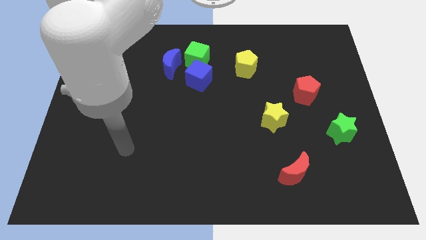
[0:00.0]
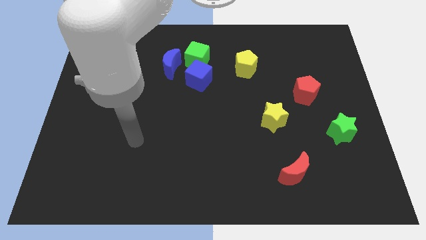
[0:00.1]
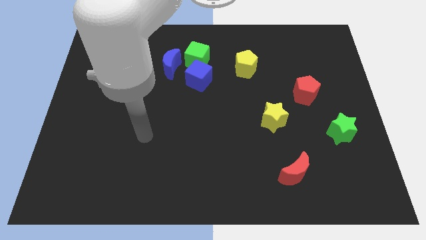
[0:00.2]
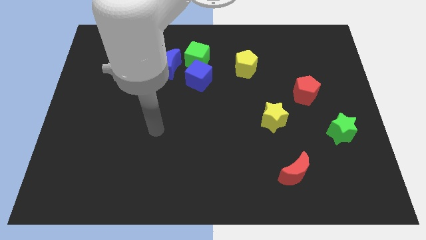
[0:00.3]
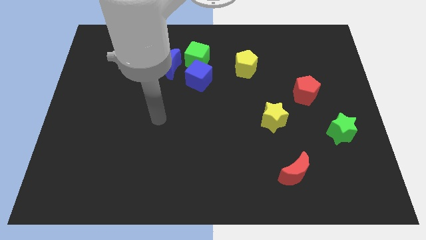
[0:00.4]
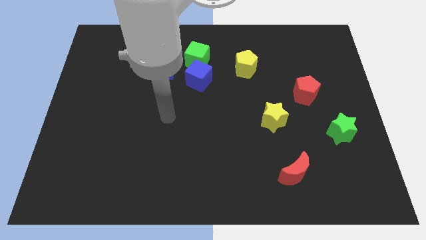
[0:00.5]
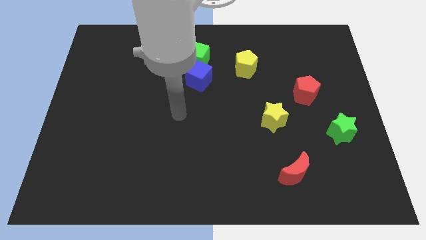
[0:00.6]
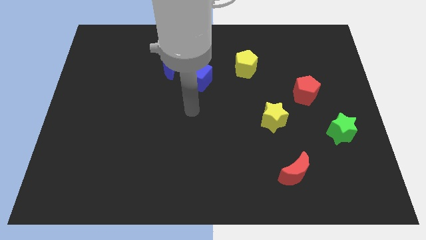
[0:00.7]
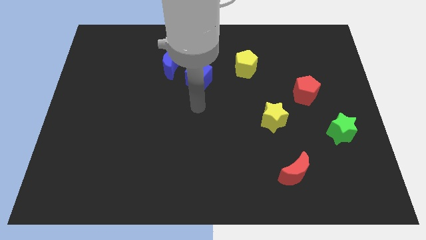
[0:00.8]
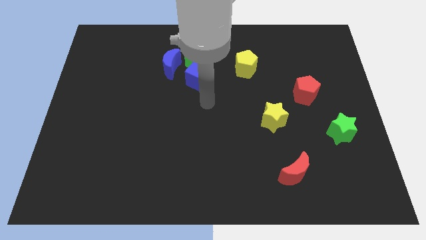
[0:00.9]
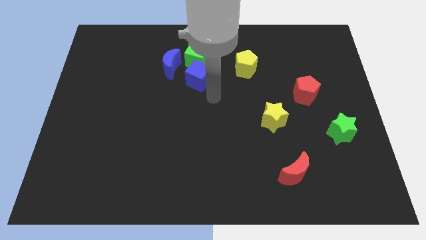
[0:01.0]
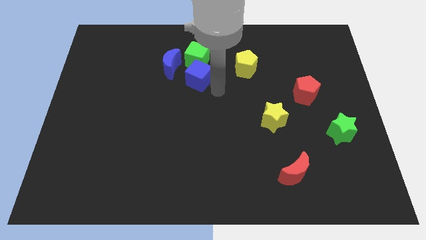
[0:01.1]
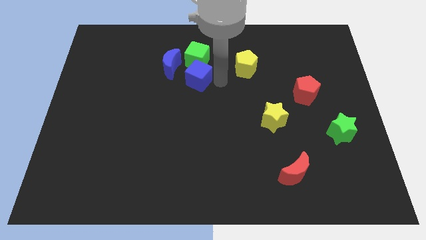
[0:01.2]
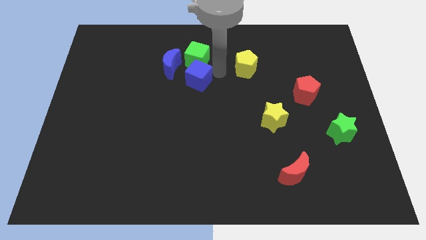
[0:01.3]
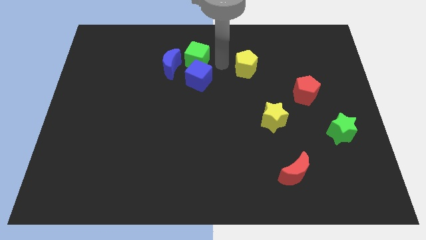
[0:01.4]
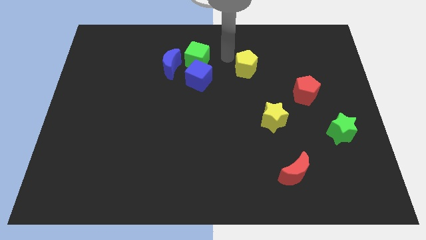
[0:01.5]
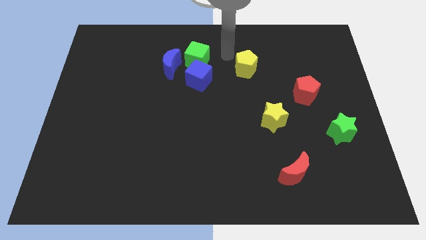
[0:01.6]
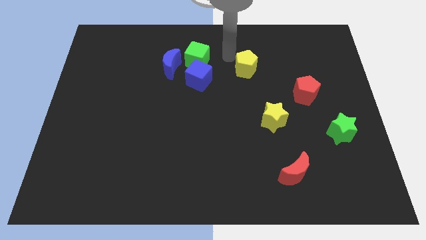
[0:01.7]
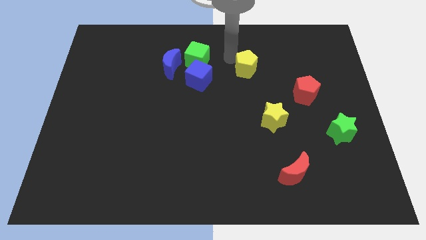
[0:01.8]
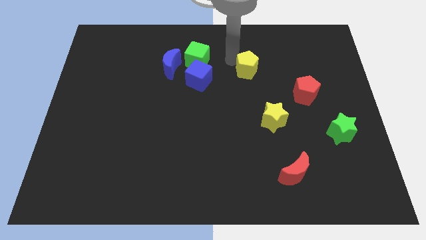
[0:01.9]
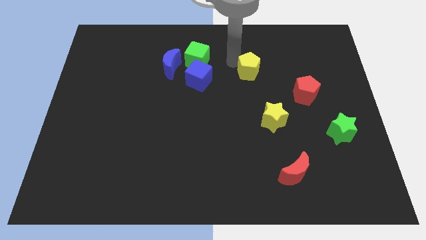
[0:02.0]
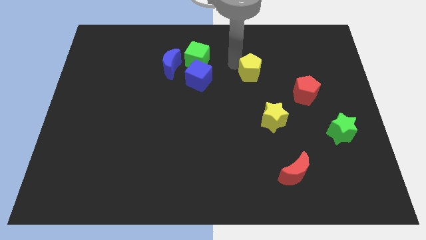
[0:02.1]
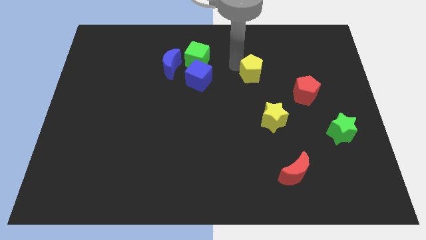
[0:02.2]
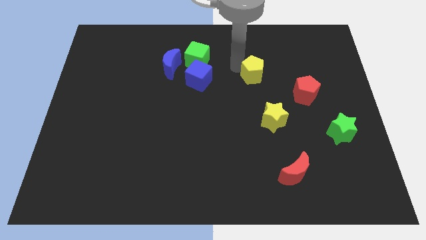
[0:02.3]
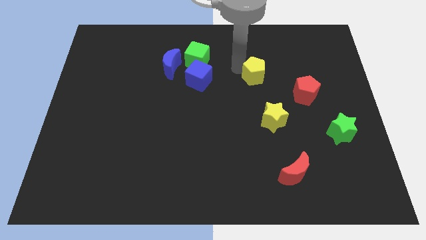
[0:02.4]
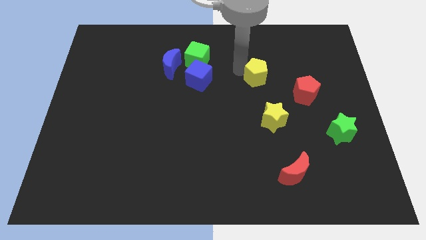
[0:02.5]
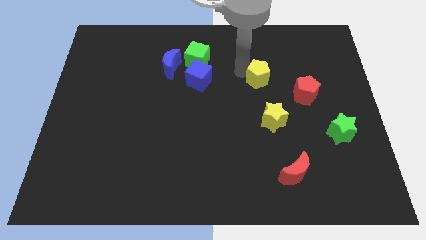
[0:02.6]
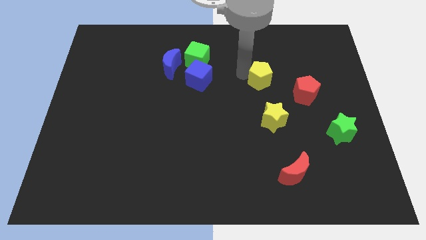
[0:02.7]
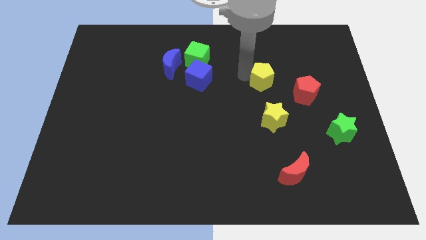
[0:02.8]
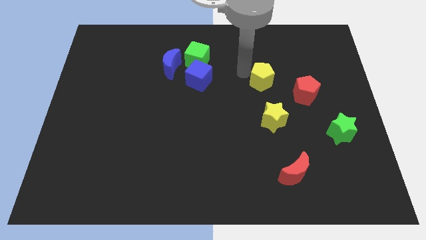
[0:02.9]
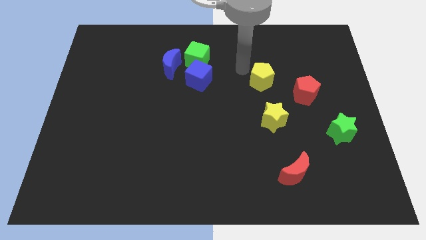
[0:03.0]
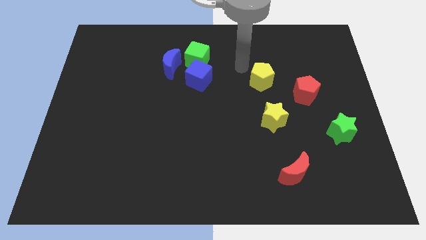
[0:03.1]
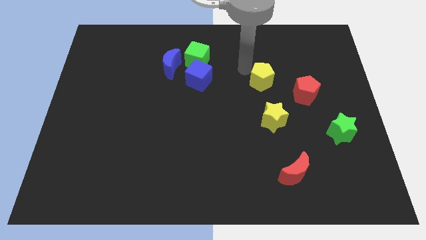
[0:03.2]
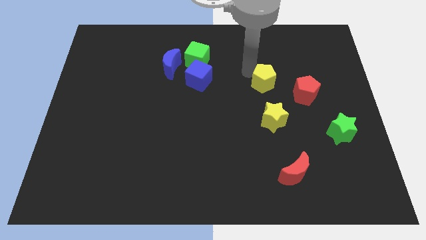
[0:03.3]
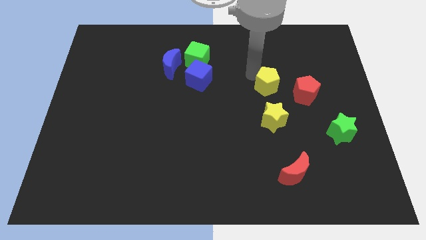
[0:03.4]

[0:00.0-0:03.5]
move the yellow pentagon down and right somewhat

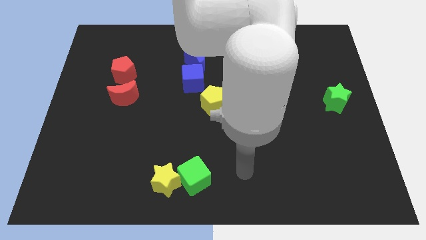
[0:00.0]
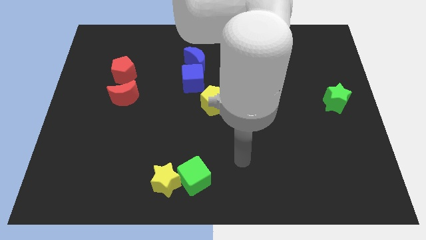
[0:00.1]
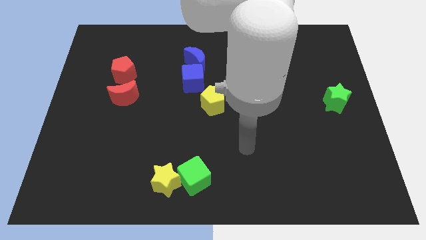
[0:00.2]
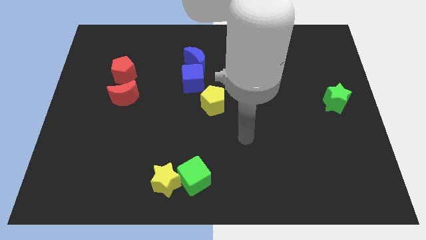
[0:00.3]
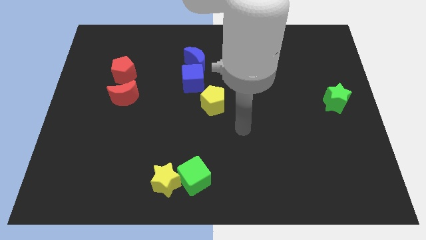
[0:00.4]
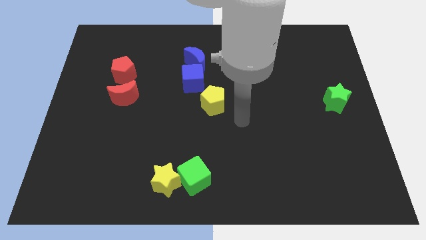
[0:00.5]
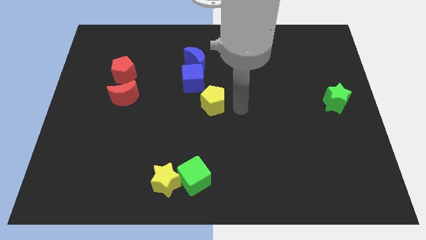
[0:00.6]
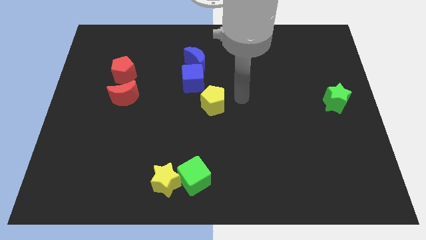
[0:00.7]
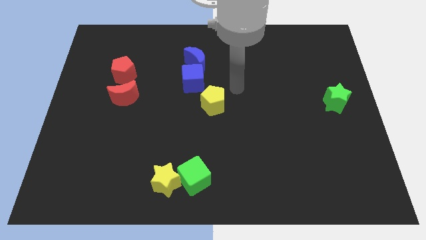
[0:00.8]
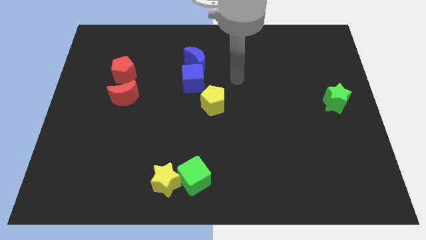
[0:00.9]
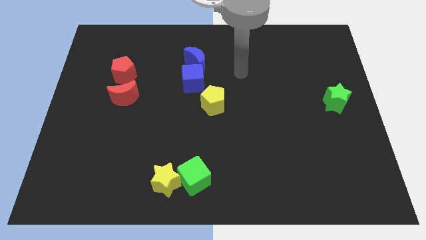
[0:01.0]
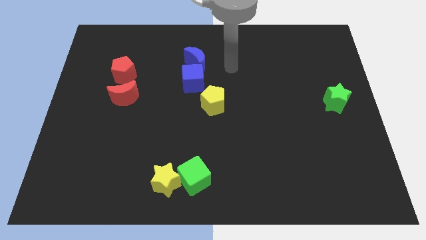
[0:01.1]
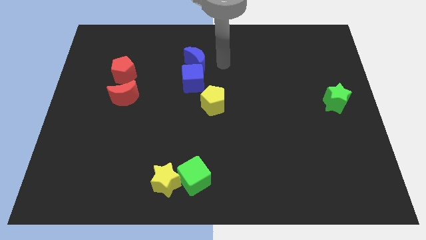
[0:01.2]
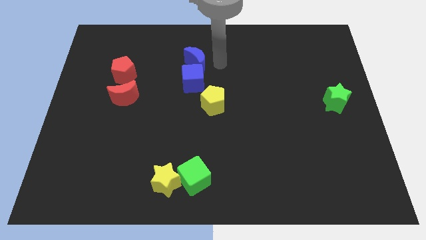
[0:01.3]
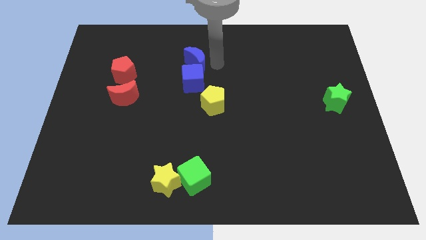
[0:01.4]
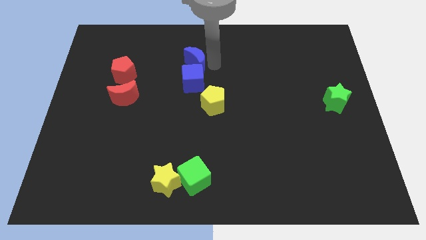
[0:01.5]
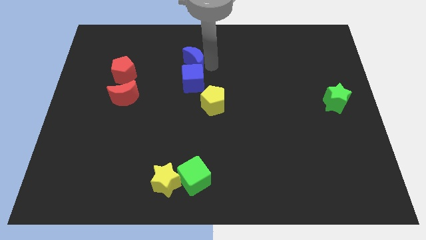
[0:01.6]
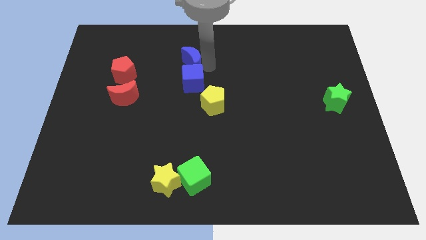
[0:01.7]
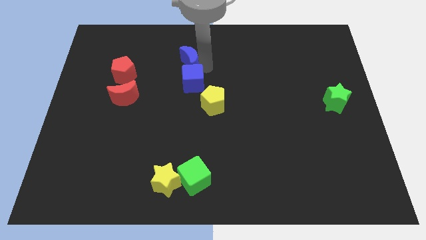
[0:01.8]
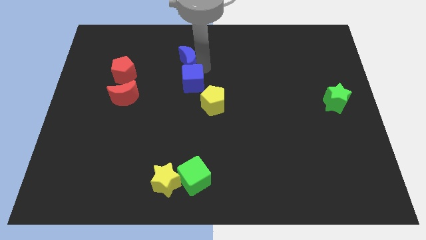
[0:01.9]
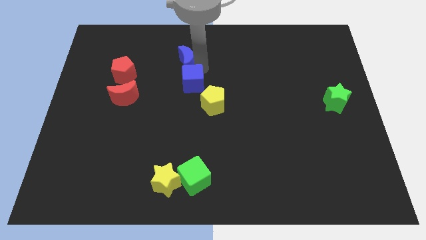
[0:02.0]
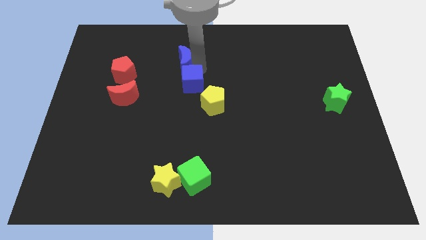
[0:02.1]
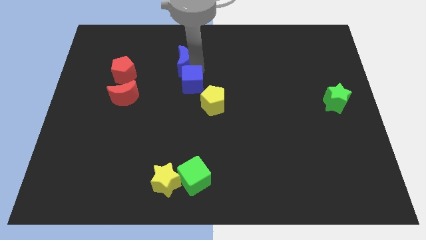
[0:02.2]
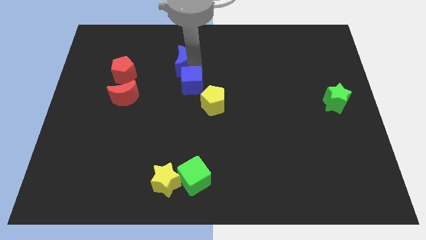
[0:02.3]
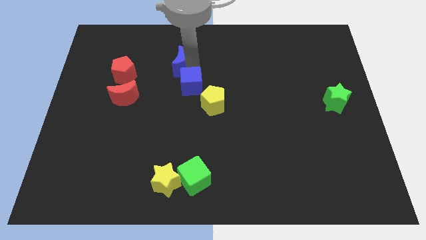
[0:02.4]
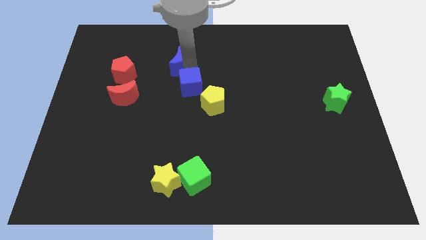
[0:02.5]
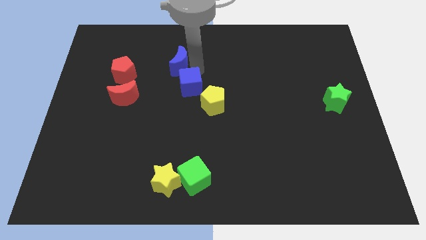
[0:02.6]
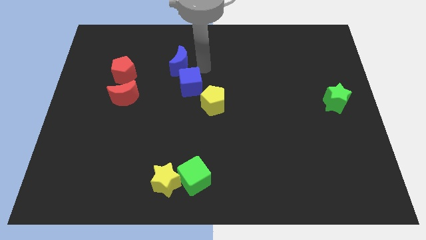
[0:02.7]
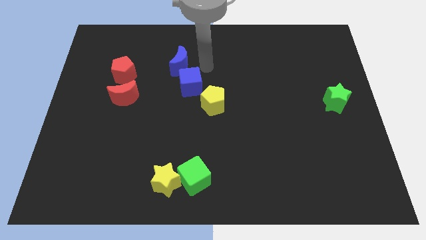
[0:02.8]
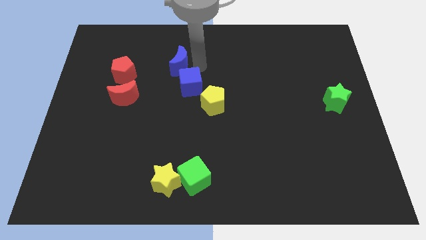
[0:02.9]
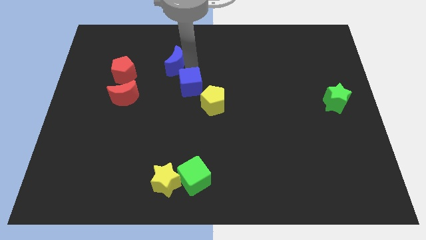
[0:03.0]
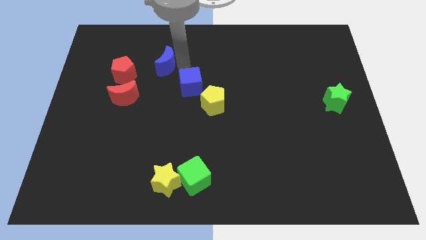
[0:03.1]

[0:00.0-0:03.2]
push the blue moon to the left a bit

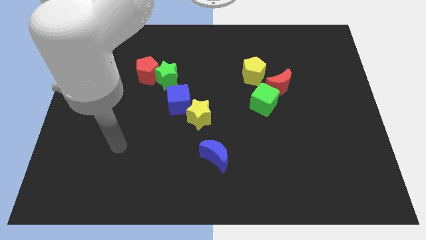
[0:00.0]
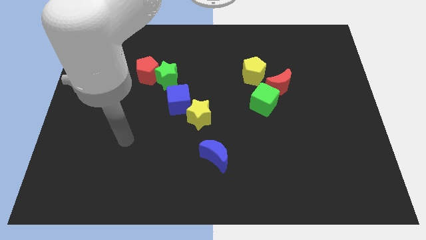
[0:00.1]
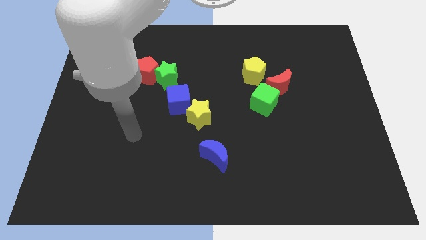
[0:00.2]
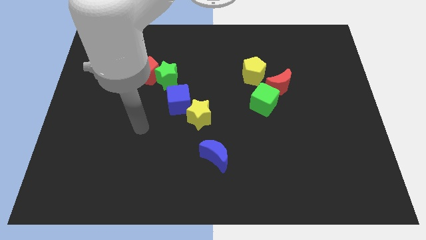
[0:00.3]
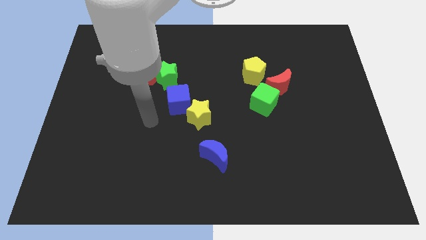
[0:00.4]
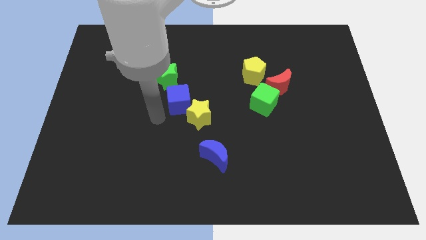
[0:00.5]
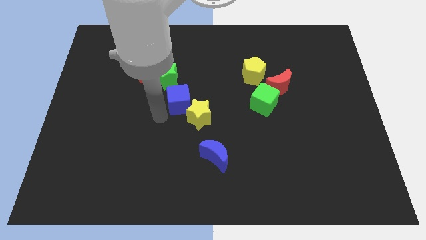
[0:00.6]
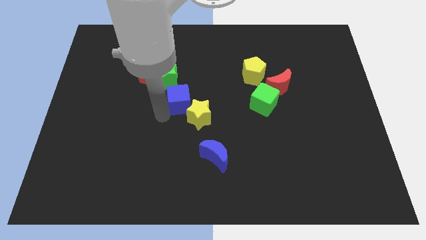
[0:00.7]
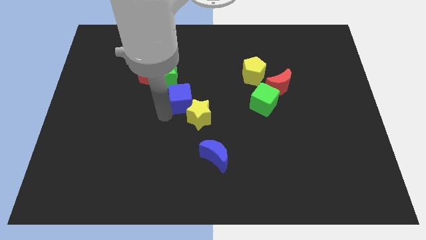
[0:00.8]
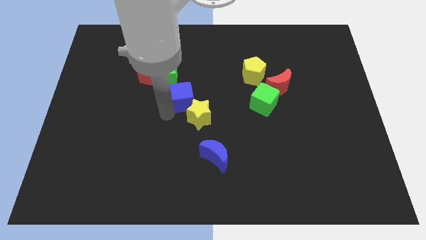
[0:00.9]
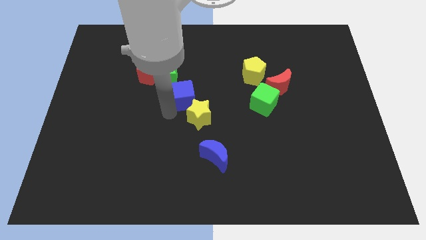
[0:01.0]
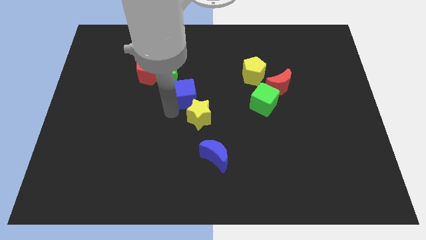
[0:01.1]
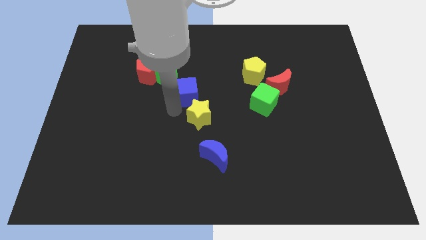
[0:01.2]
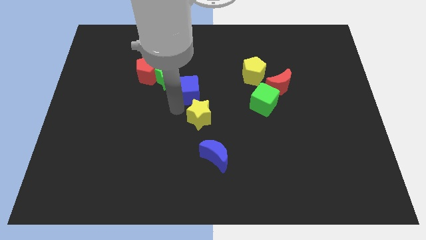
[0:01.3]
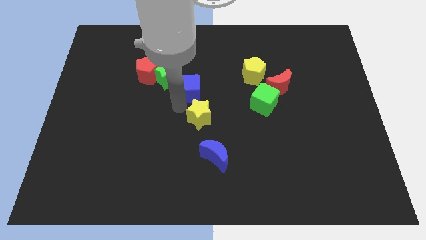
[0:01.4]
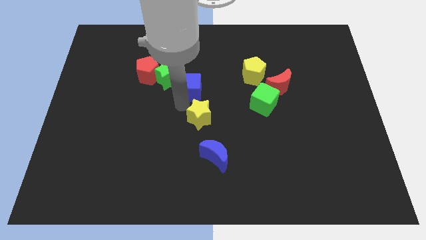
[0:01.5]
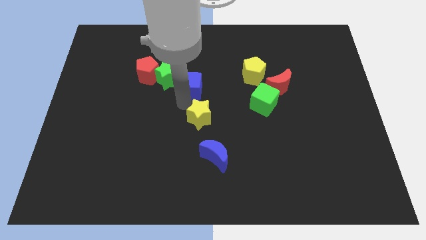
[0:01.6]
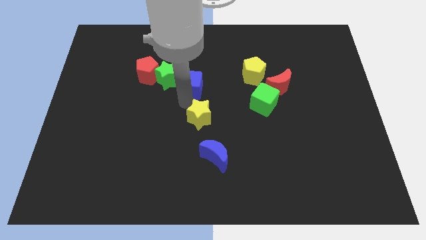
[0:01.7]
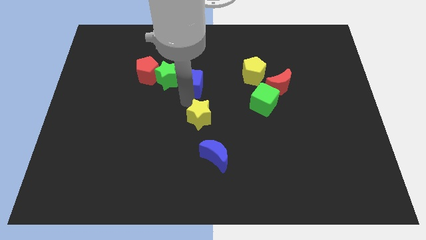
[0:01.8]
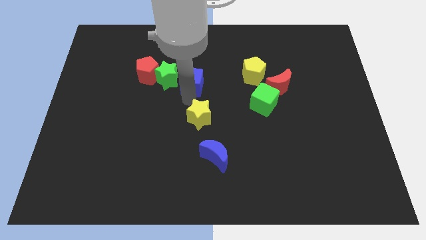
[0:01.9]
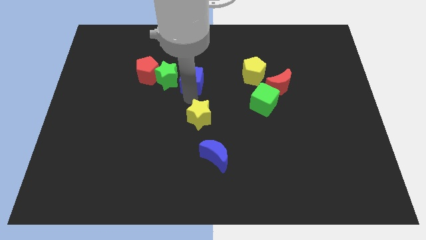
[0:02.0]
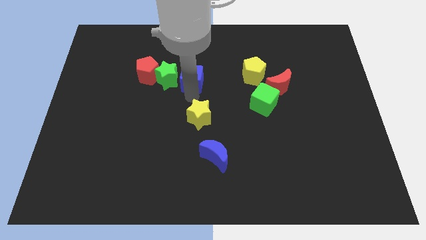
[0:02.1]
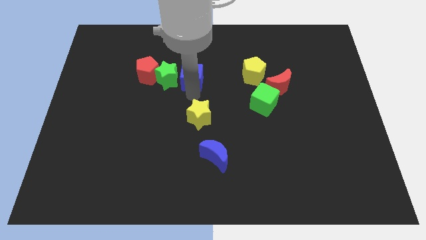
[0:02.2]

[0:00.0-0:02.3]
move the blue cube a little bit diagonally up and right
